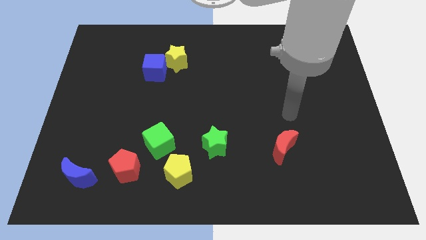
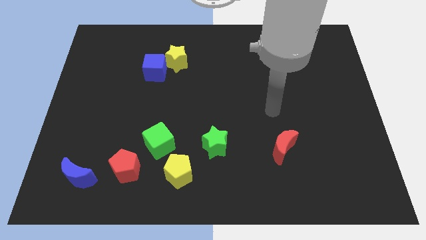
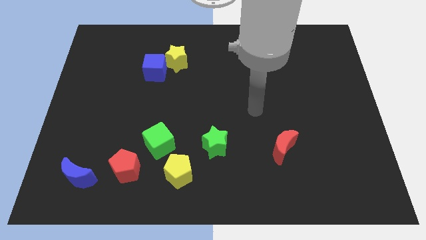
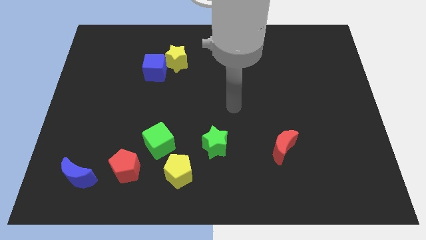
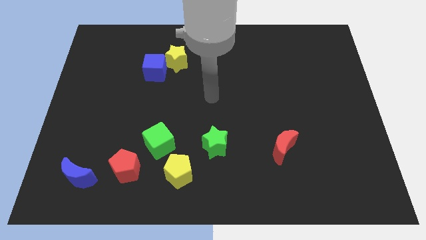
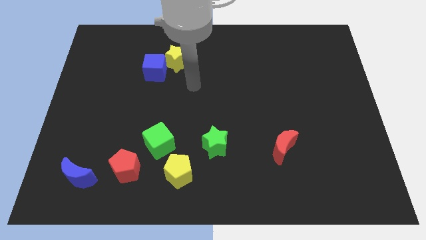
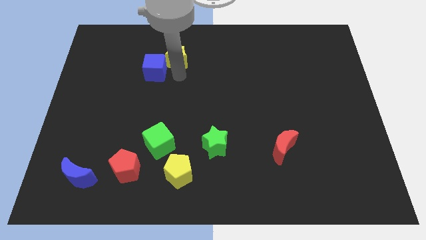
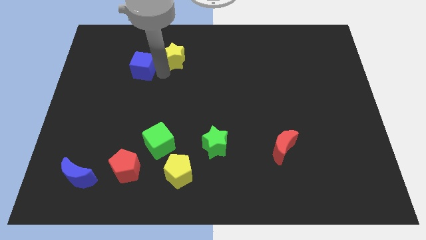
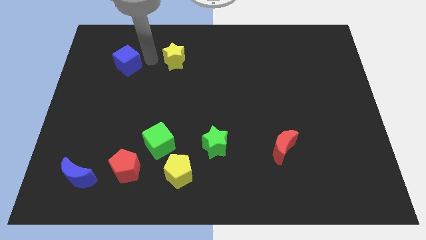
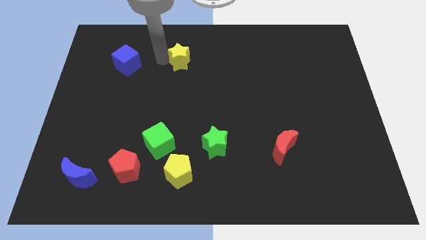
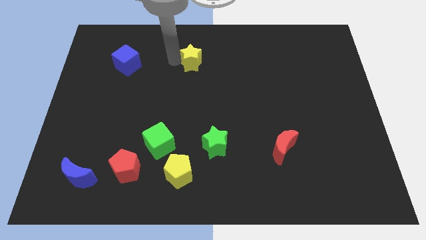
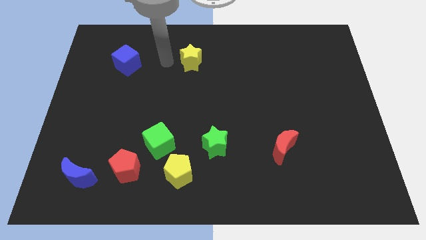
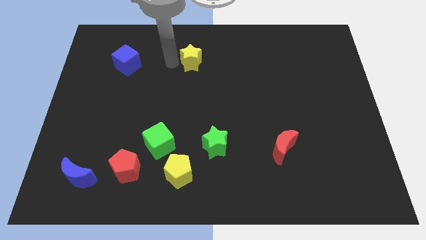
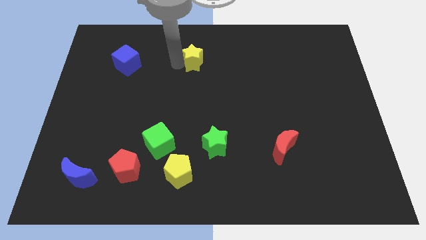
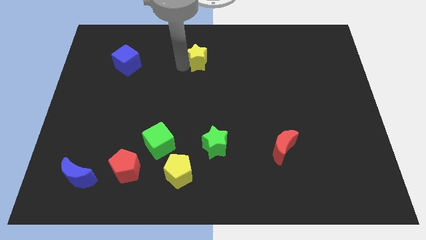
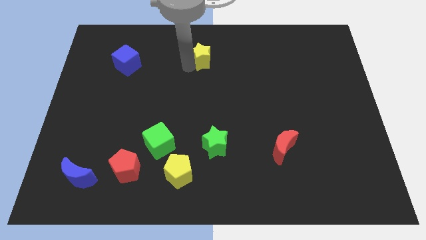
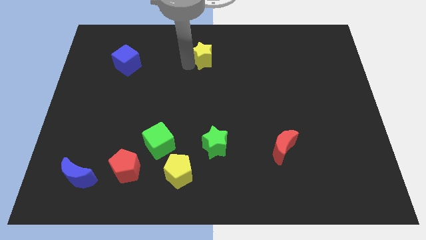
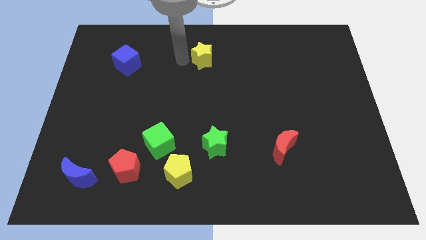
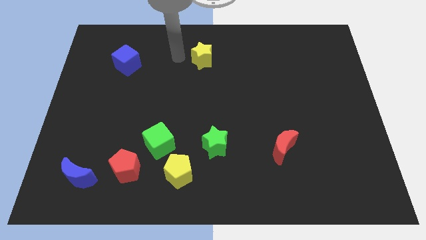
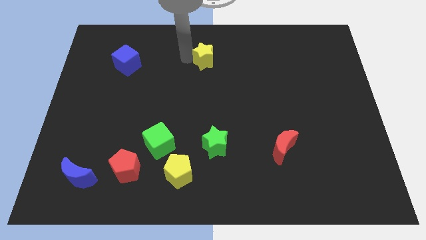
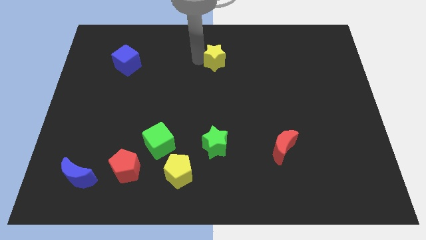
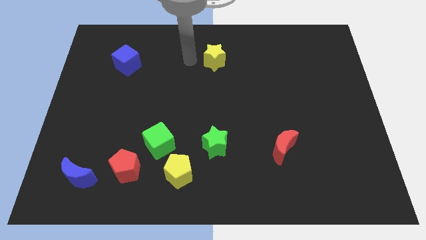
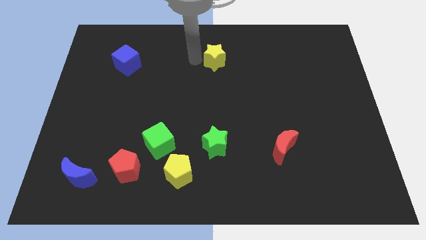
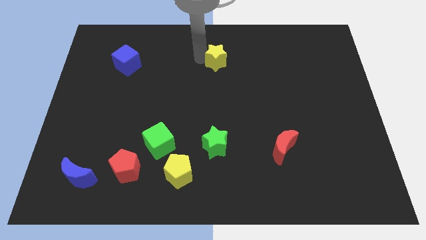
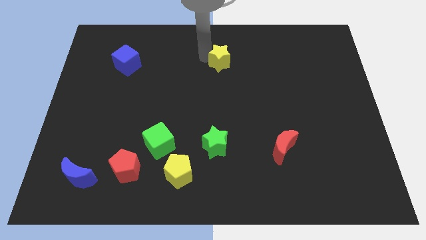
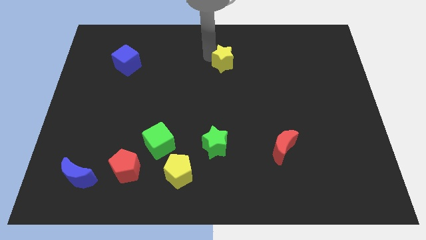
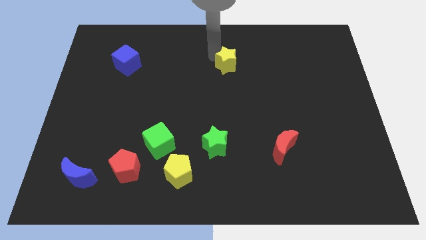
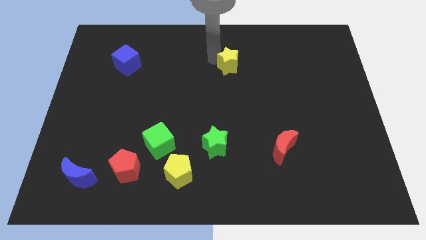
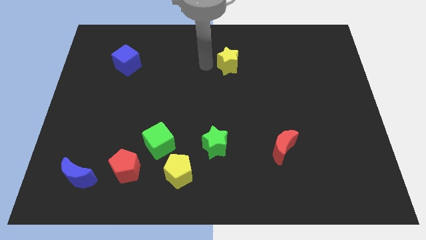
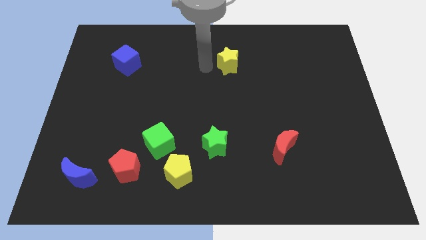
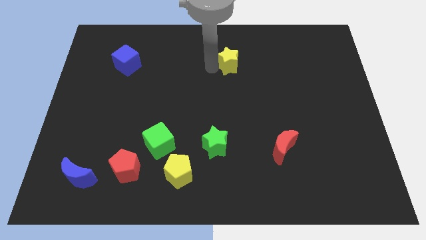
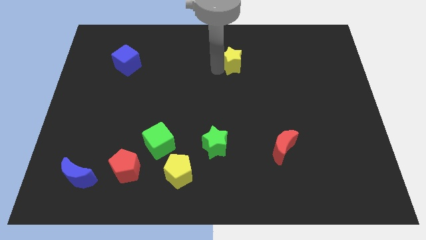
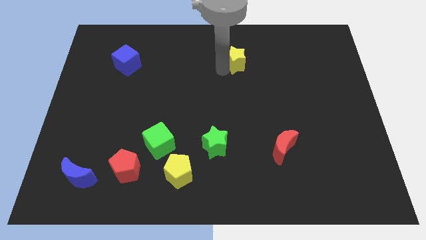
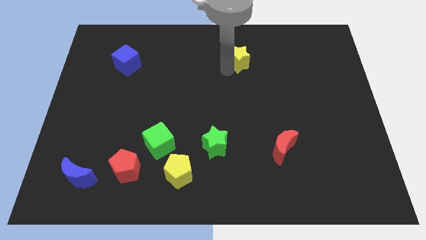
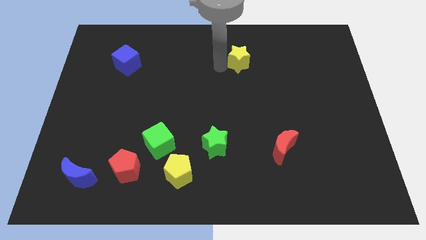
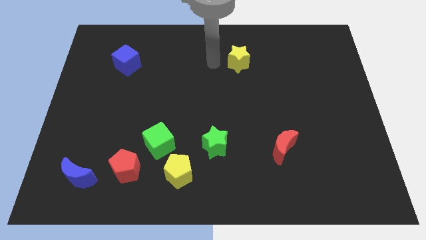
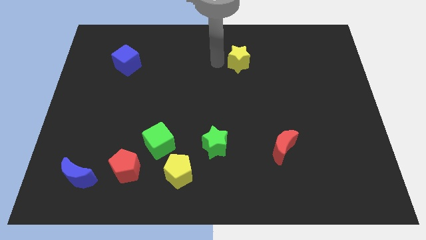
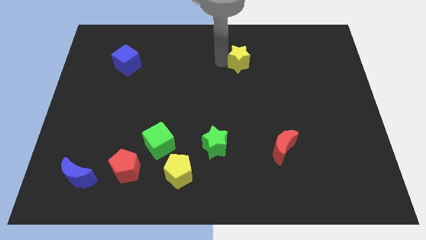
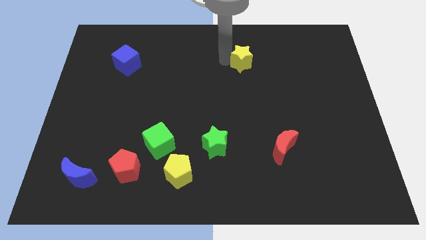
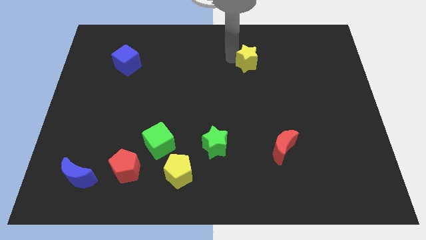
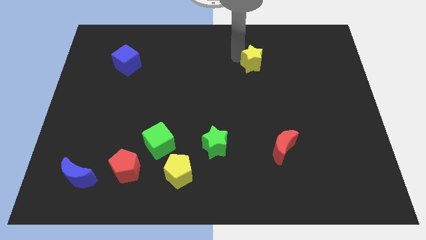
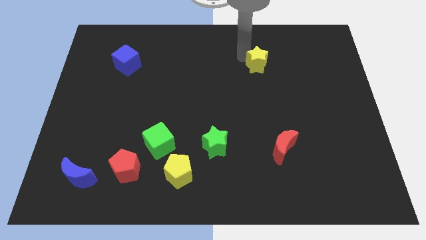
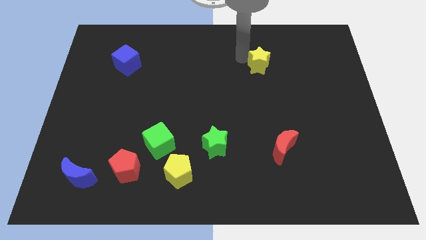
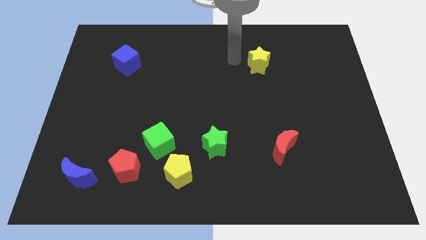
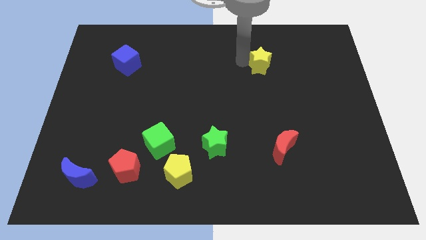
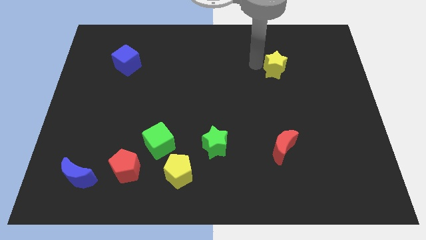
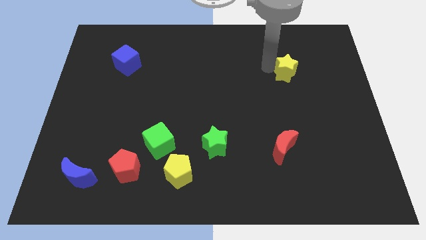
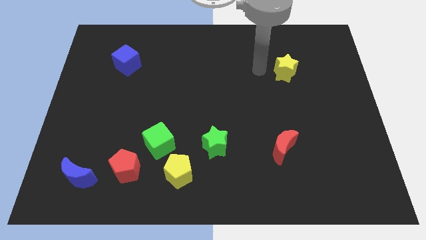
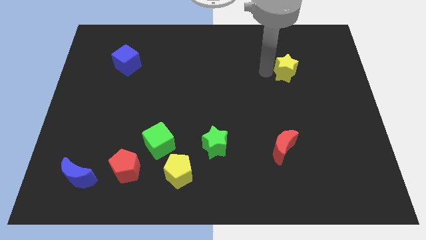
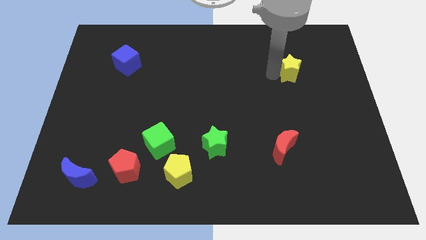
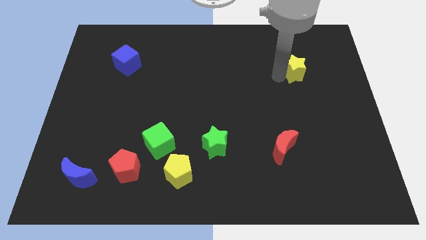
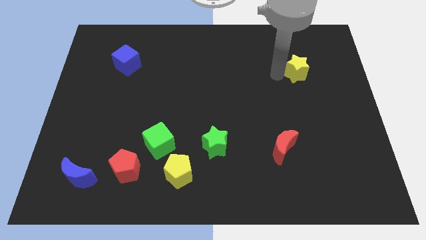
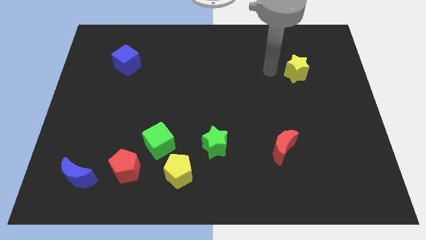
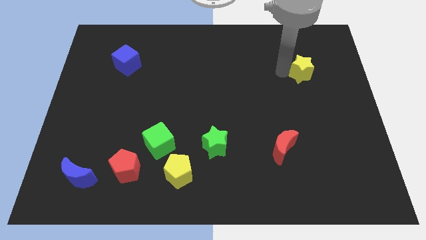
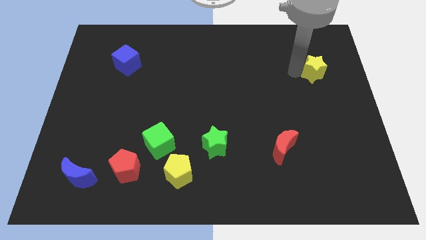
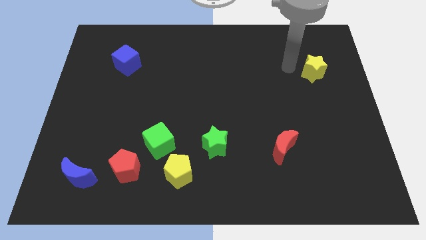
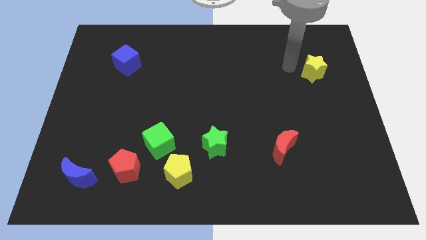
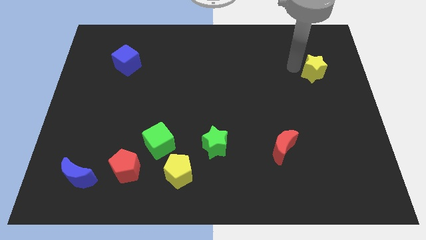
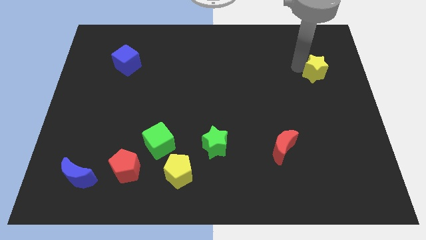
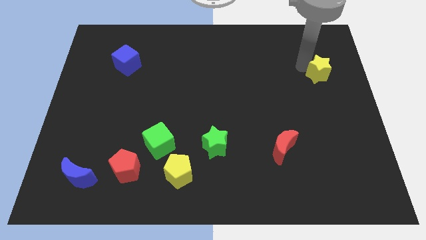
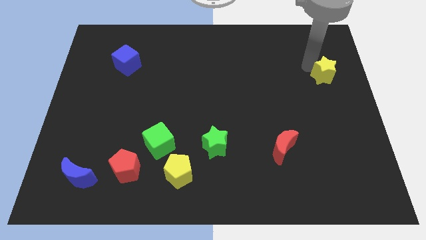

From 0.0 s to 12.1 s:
move the yellow star to the right side

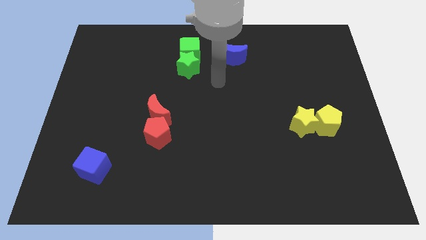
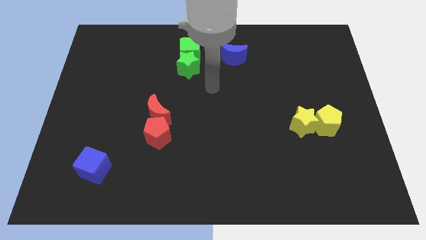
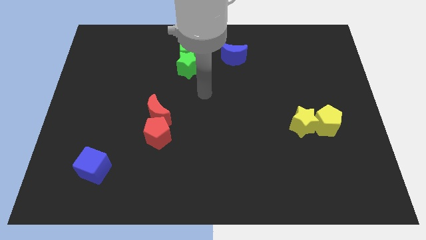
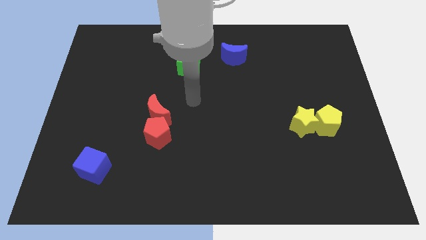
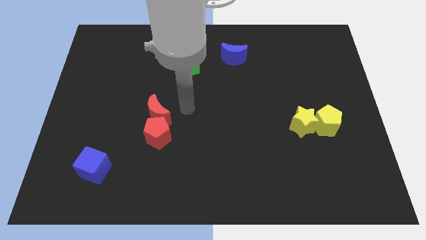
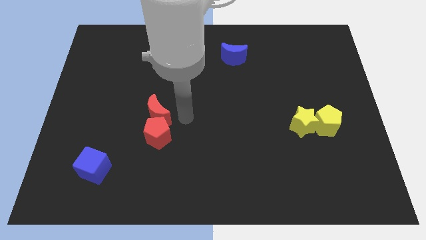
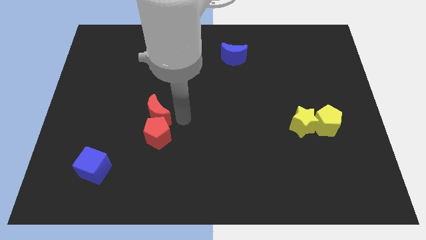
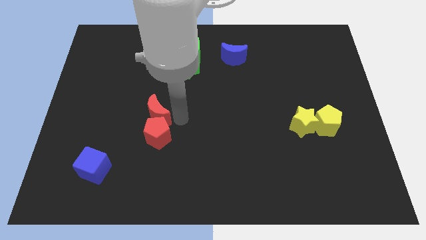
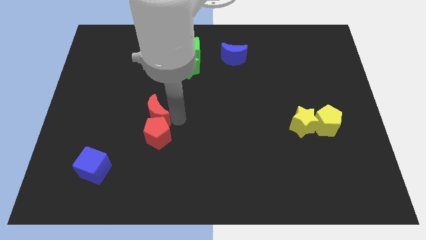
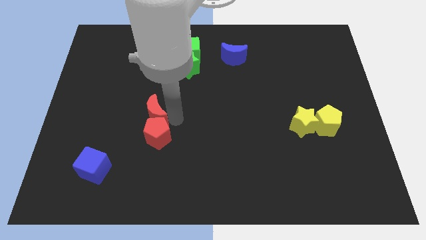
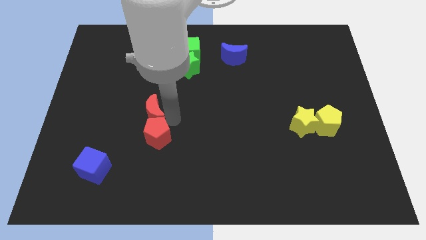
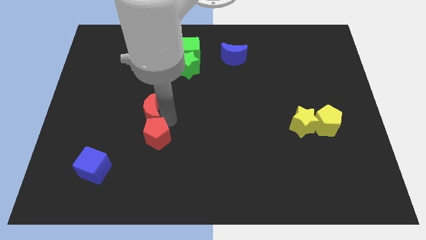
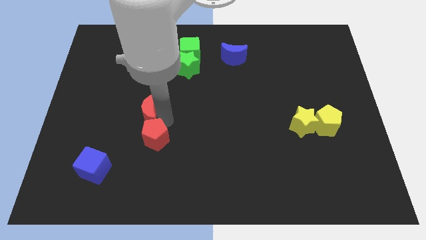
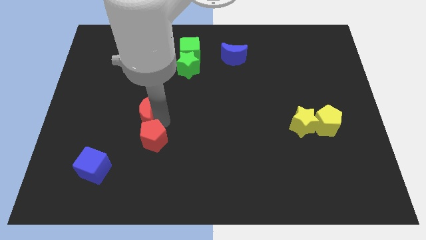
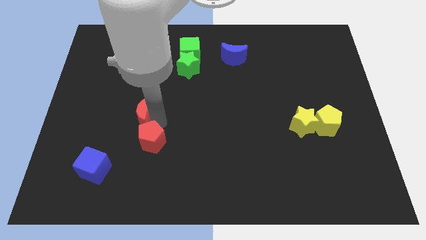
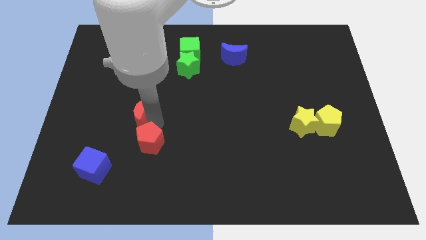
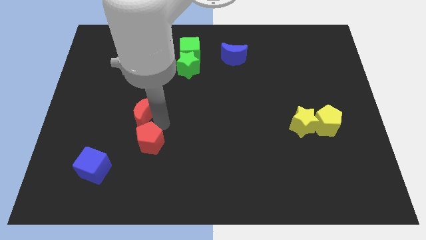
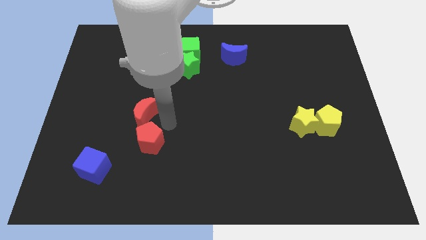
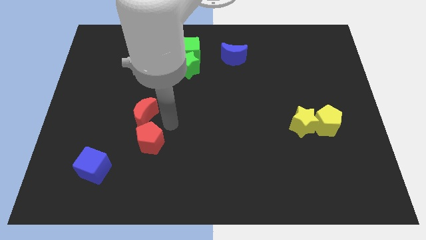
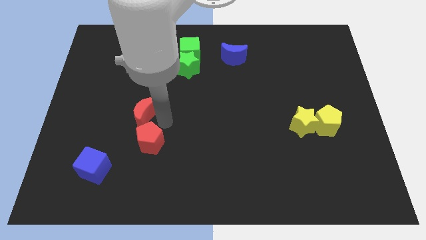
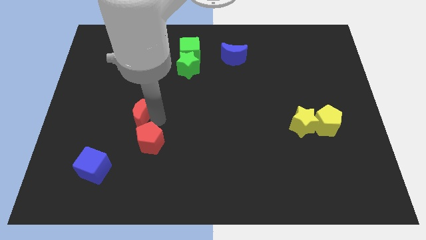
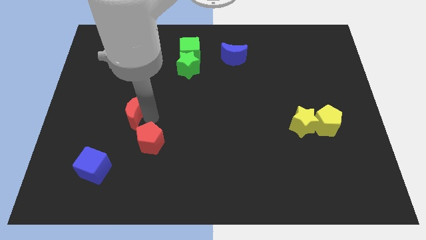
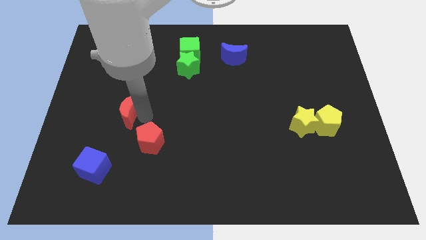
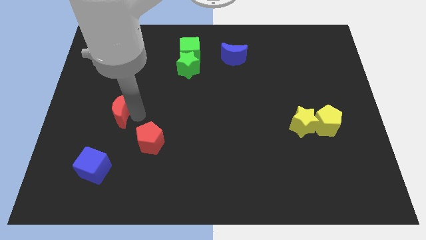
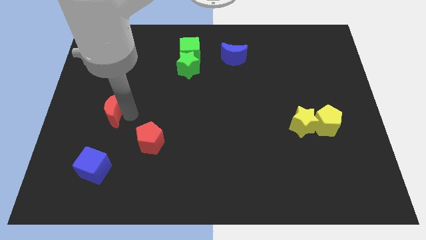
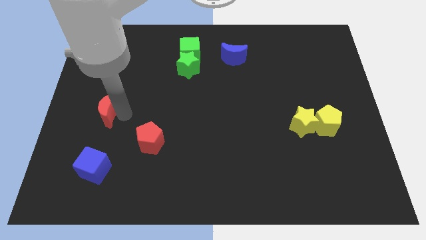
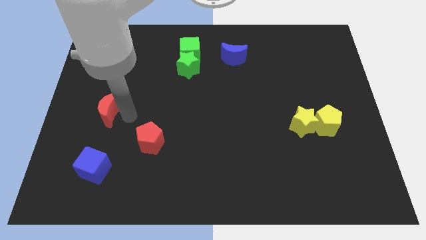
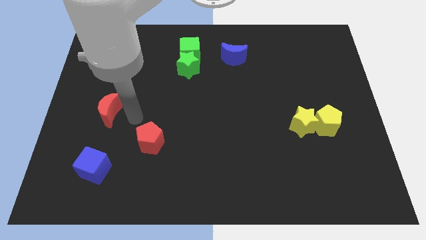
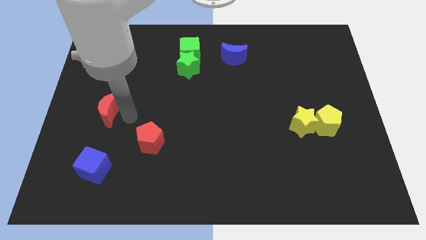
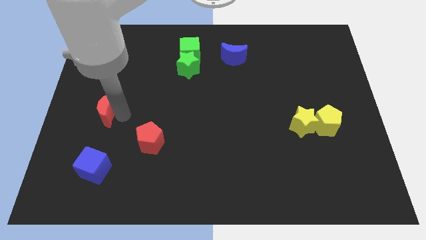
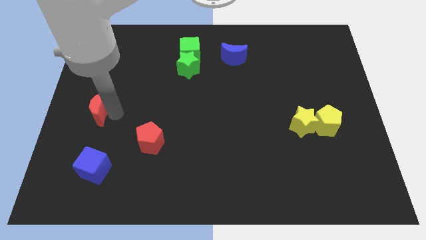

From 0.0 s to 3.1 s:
push the red moon to the center left
